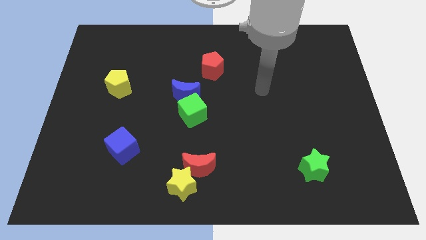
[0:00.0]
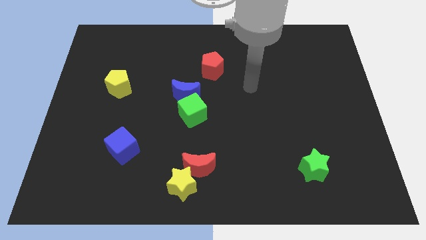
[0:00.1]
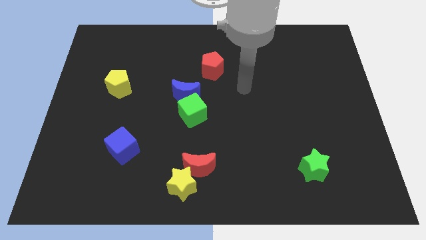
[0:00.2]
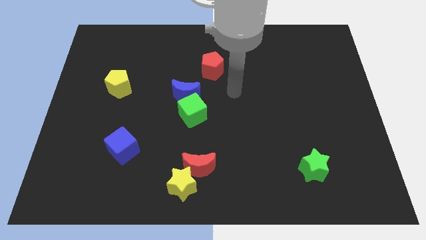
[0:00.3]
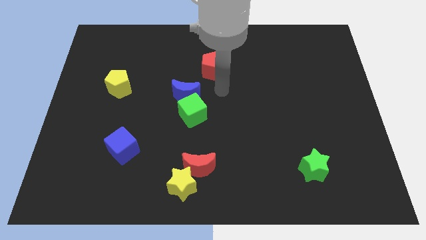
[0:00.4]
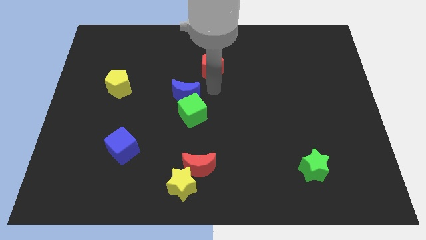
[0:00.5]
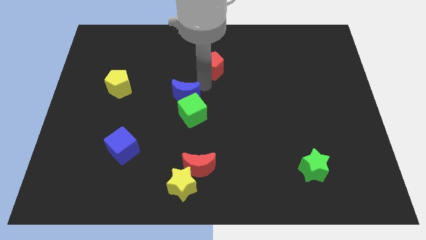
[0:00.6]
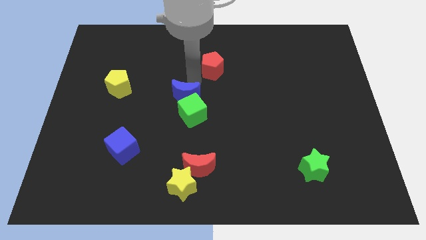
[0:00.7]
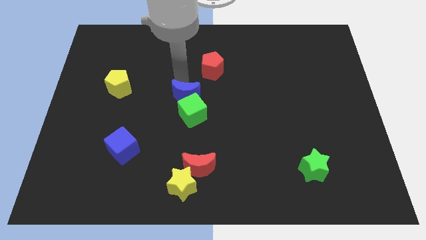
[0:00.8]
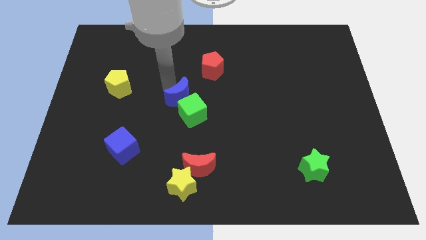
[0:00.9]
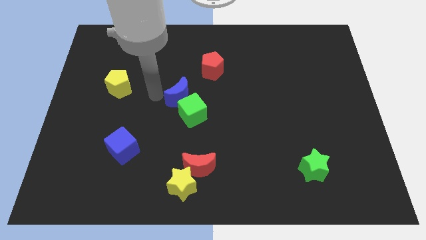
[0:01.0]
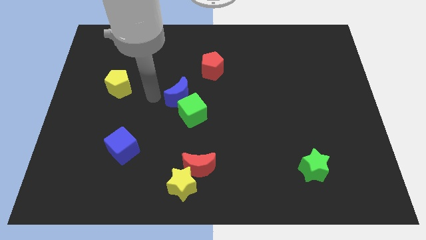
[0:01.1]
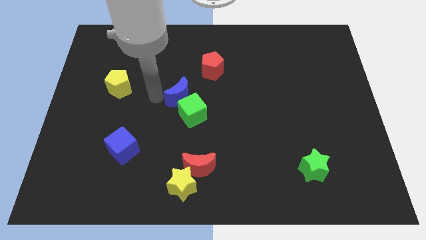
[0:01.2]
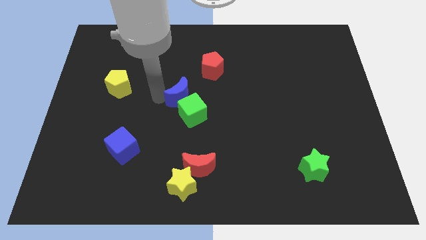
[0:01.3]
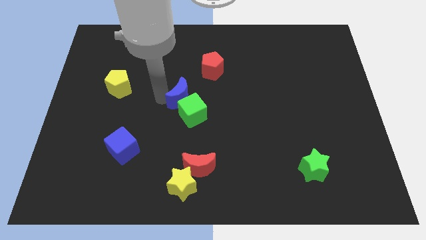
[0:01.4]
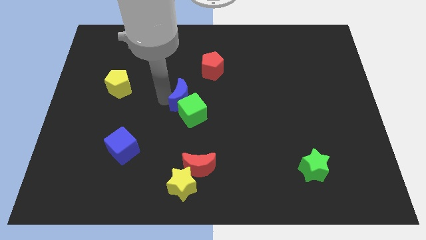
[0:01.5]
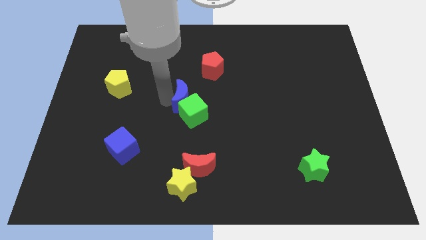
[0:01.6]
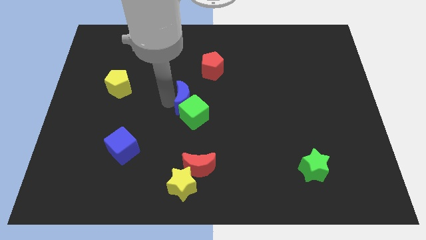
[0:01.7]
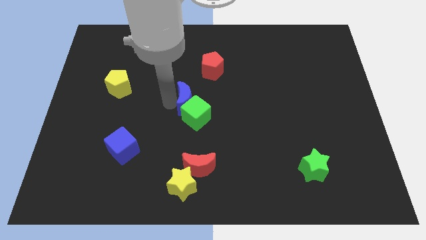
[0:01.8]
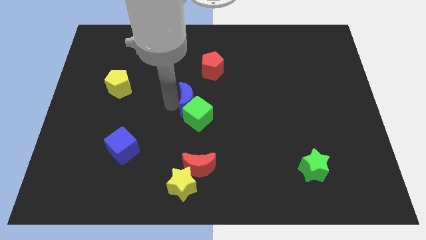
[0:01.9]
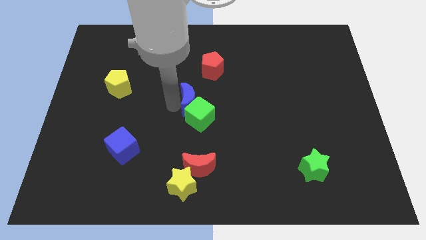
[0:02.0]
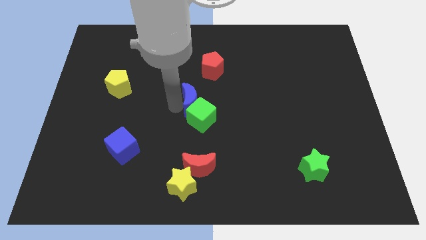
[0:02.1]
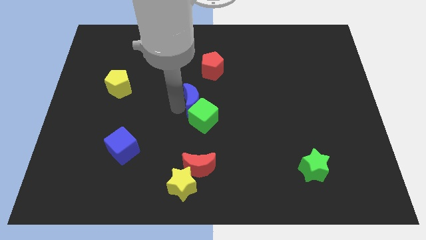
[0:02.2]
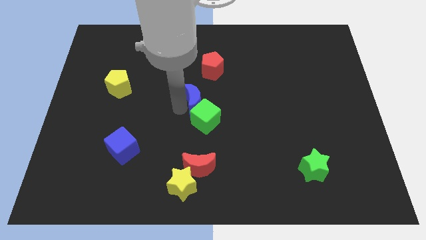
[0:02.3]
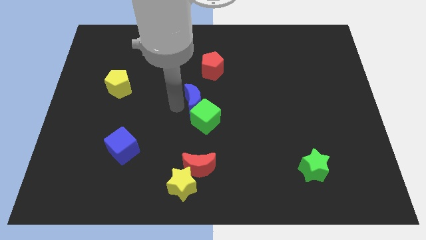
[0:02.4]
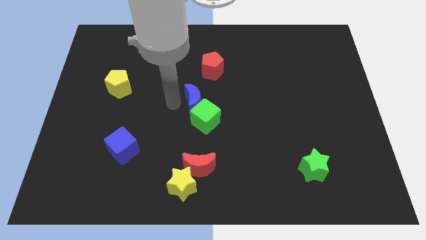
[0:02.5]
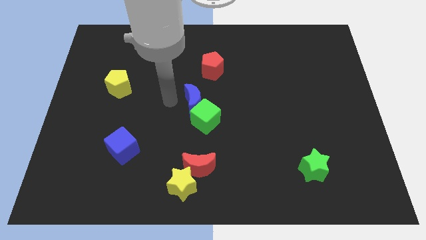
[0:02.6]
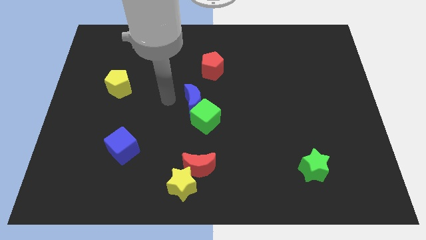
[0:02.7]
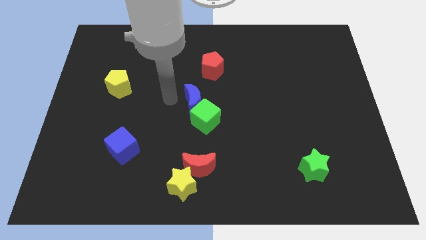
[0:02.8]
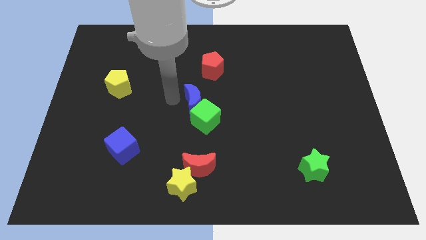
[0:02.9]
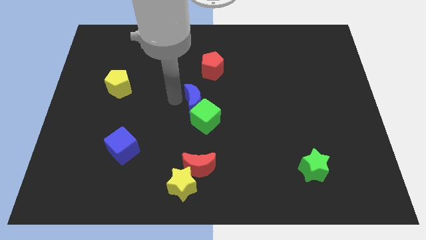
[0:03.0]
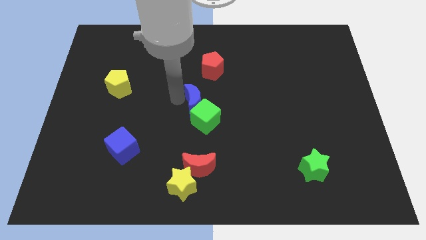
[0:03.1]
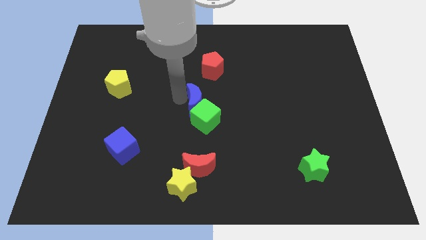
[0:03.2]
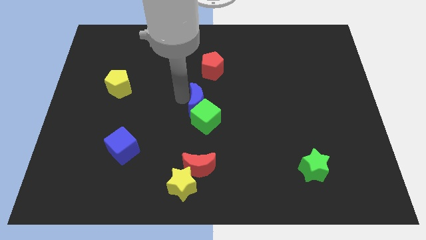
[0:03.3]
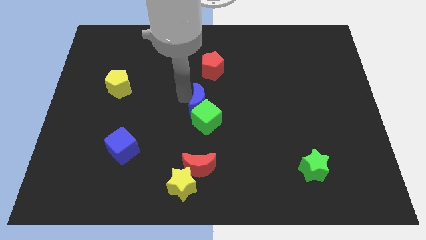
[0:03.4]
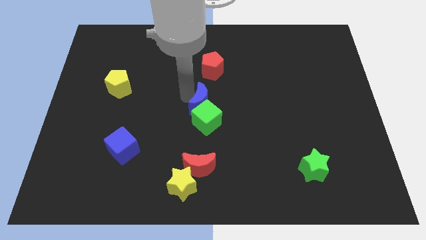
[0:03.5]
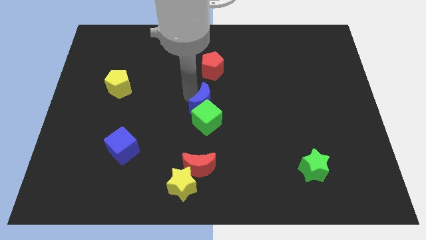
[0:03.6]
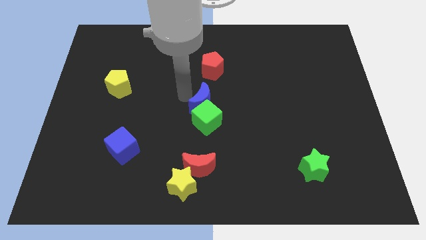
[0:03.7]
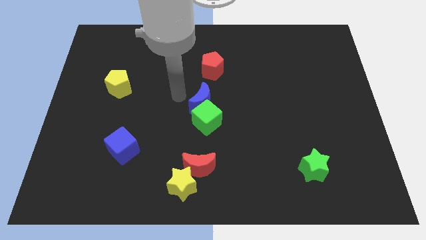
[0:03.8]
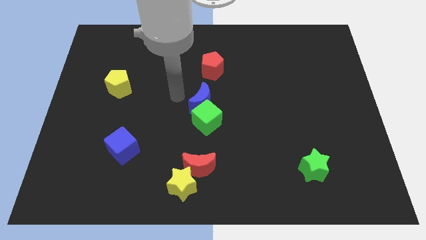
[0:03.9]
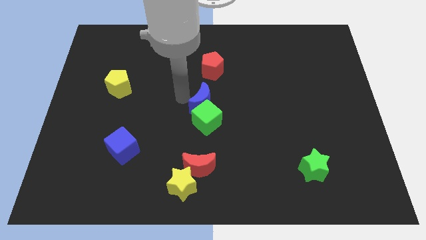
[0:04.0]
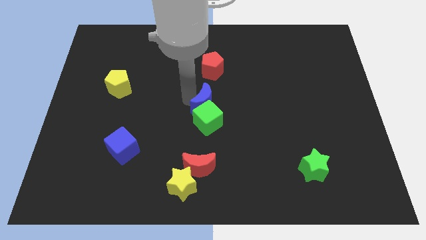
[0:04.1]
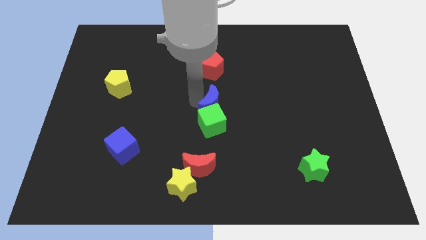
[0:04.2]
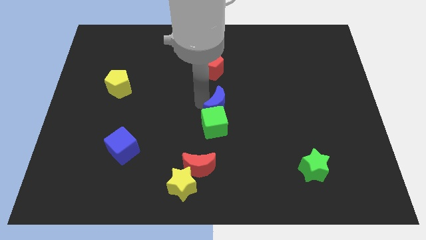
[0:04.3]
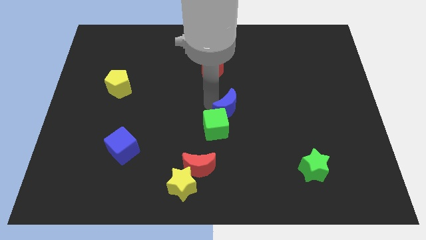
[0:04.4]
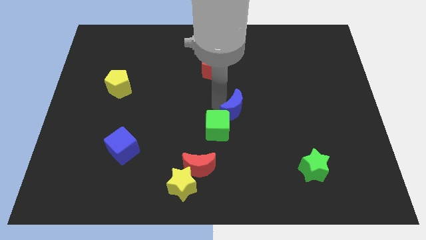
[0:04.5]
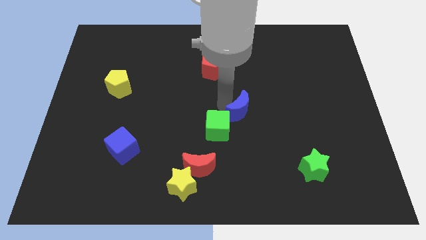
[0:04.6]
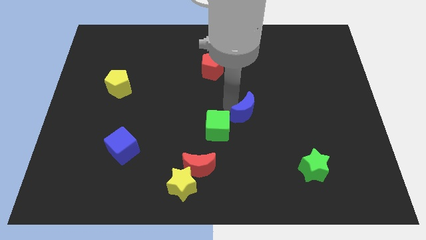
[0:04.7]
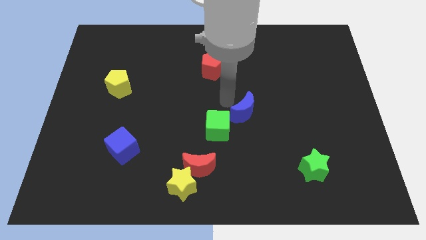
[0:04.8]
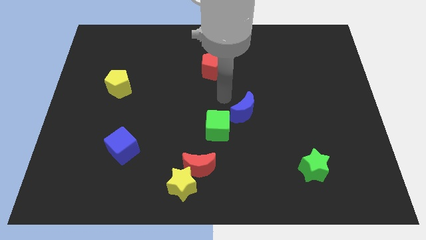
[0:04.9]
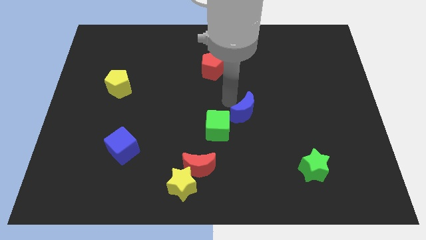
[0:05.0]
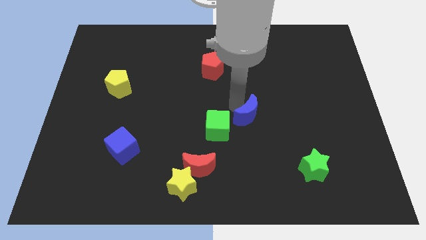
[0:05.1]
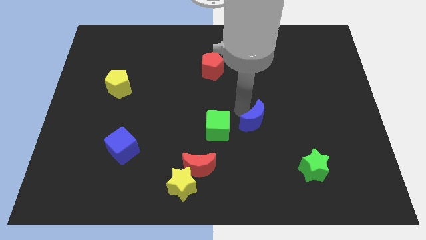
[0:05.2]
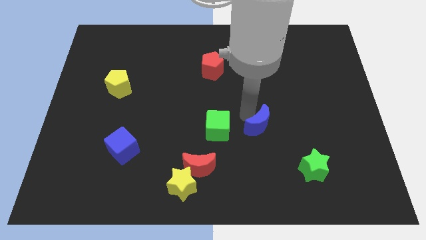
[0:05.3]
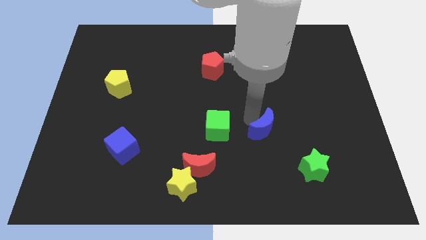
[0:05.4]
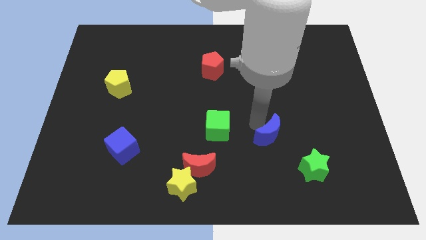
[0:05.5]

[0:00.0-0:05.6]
put the blue moon to the top left side of the green star
